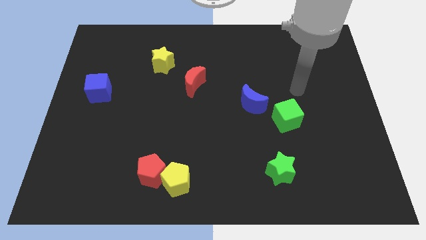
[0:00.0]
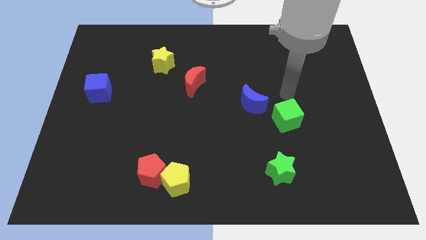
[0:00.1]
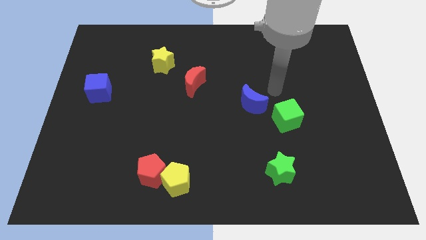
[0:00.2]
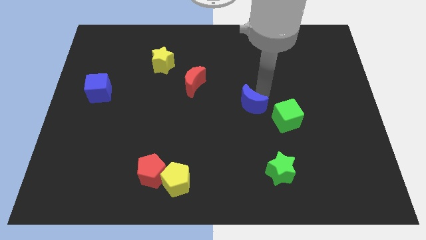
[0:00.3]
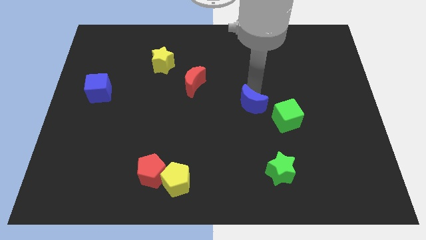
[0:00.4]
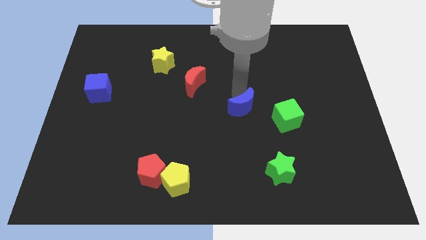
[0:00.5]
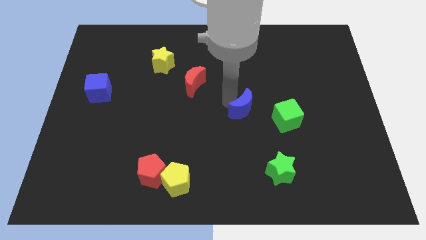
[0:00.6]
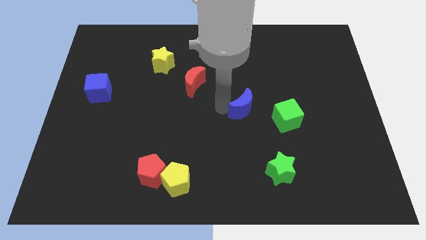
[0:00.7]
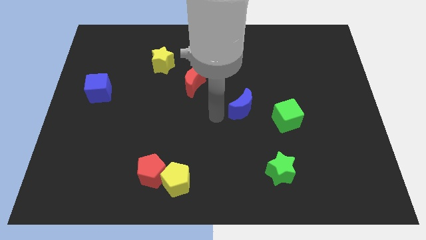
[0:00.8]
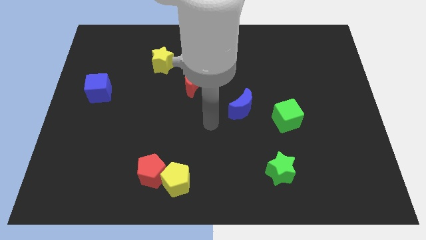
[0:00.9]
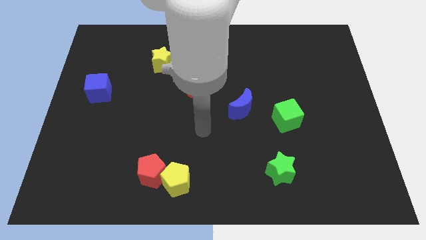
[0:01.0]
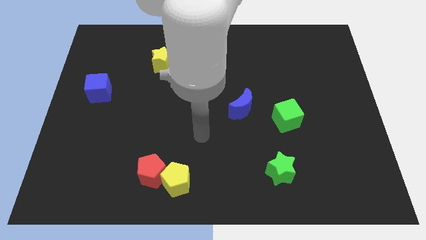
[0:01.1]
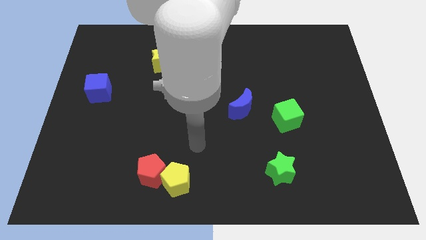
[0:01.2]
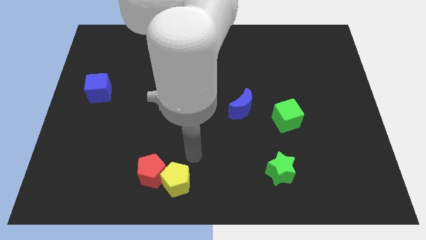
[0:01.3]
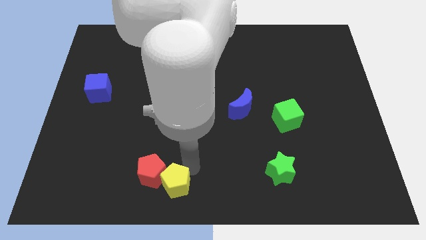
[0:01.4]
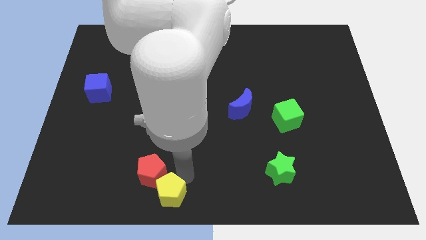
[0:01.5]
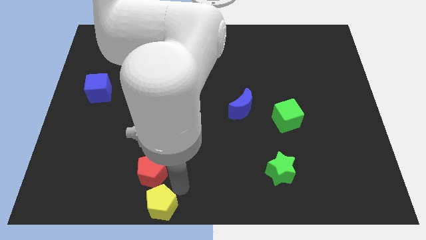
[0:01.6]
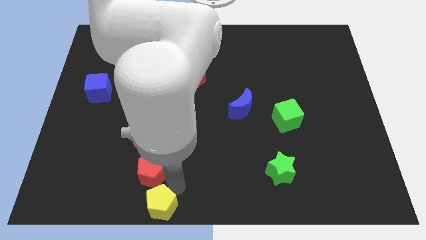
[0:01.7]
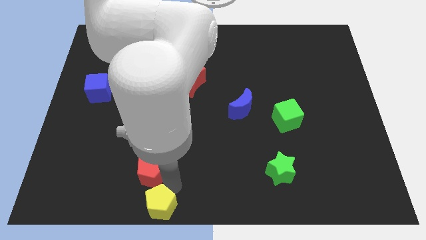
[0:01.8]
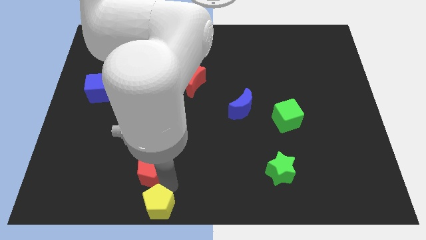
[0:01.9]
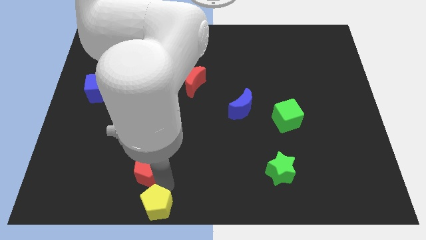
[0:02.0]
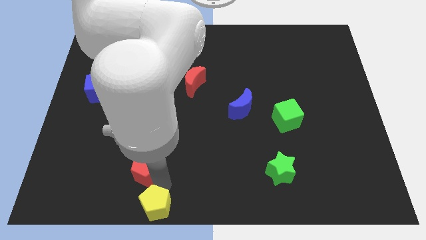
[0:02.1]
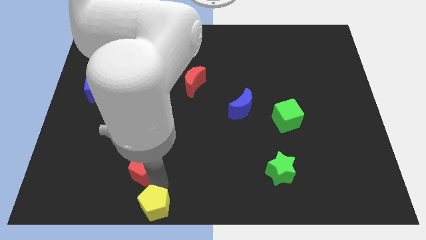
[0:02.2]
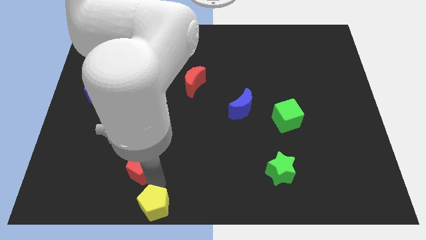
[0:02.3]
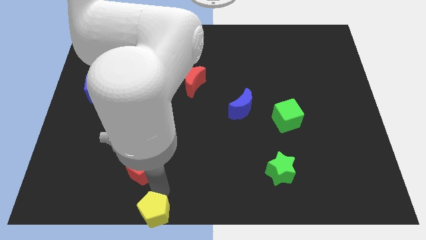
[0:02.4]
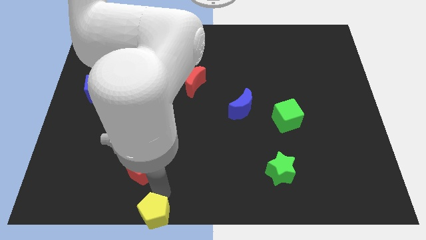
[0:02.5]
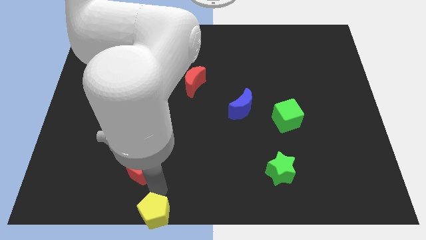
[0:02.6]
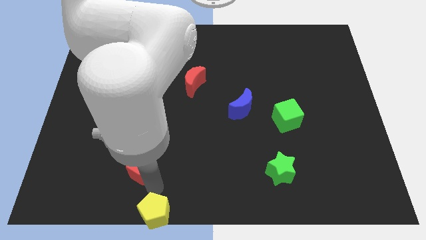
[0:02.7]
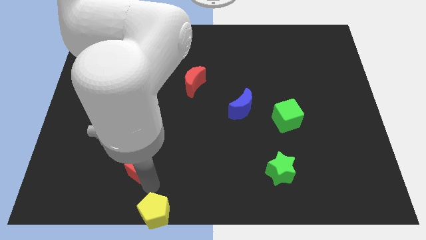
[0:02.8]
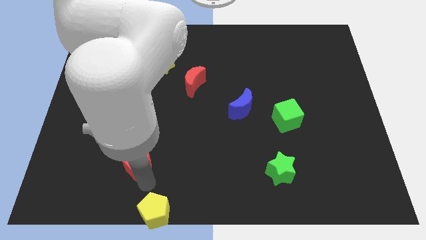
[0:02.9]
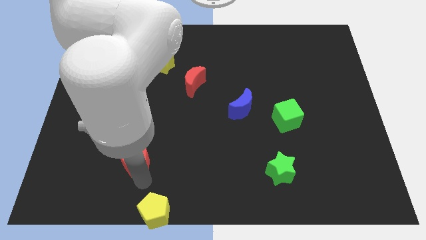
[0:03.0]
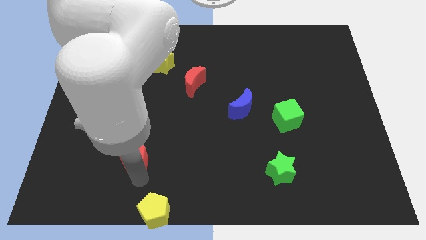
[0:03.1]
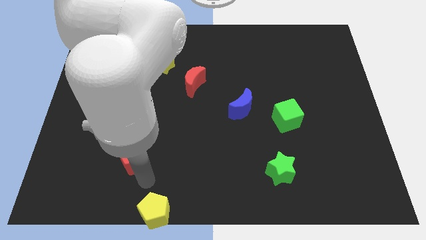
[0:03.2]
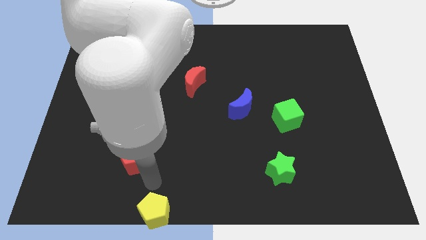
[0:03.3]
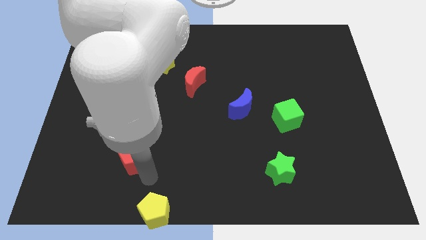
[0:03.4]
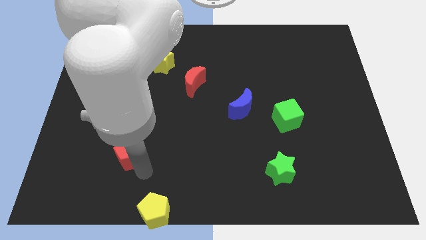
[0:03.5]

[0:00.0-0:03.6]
slightly move the red pentagon up and left

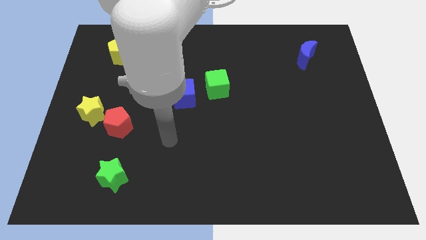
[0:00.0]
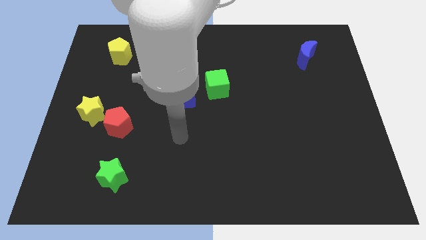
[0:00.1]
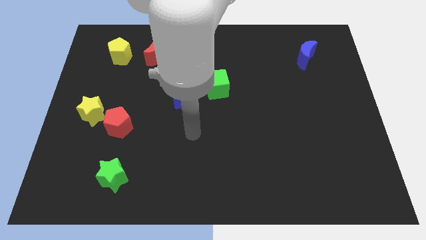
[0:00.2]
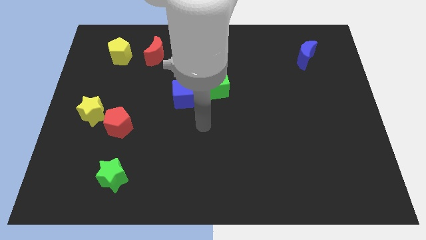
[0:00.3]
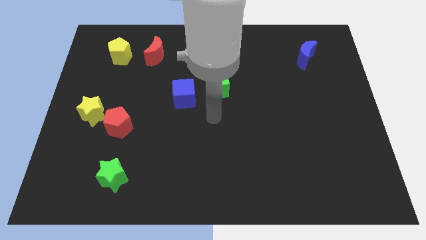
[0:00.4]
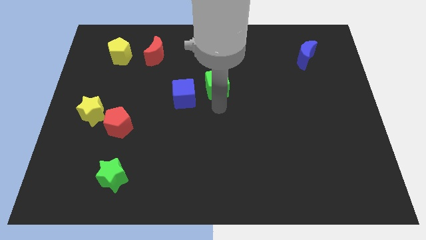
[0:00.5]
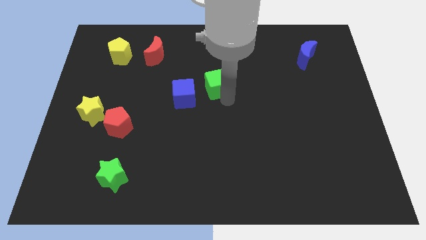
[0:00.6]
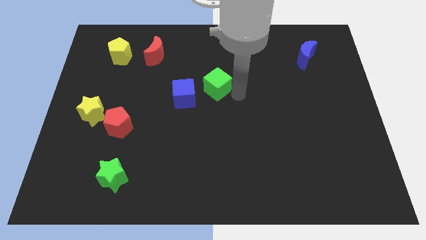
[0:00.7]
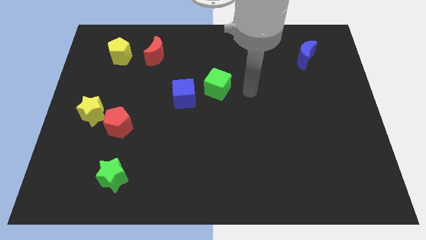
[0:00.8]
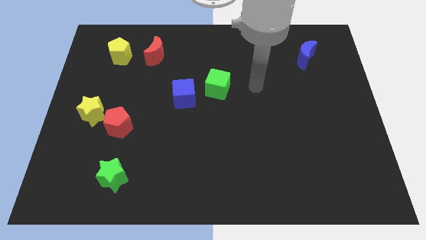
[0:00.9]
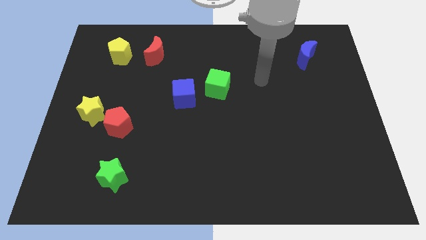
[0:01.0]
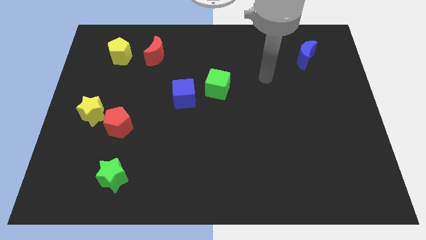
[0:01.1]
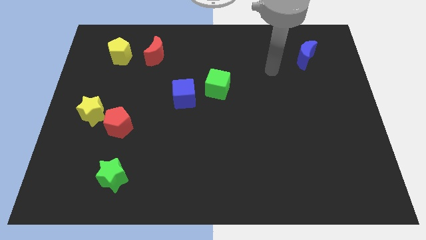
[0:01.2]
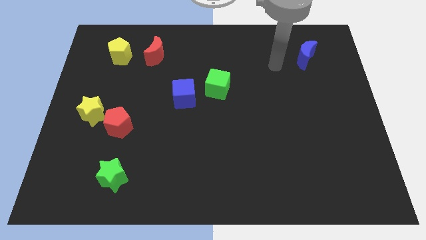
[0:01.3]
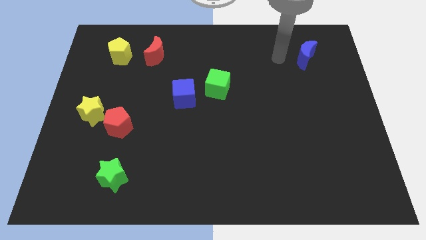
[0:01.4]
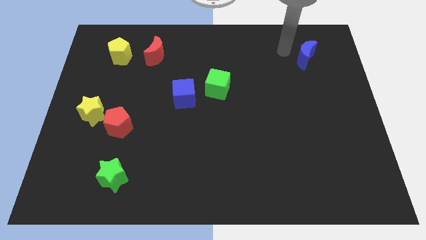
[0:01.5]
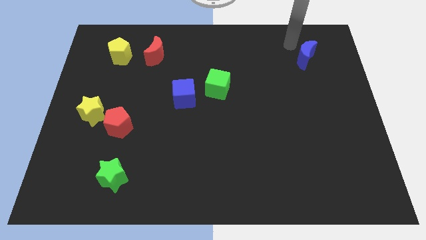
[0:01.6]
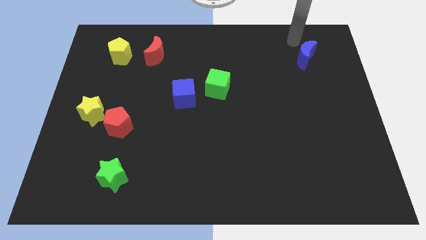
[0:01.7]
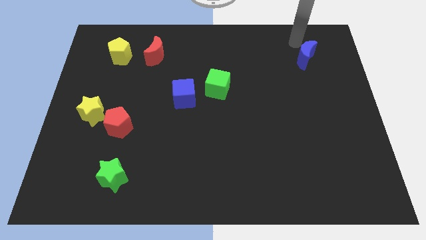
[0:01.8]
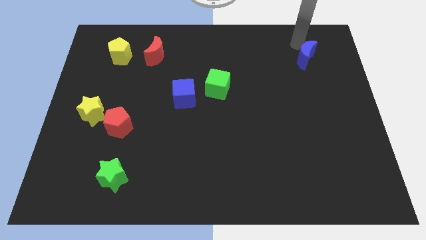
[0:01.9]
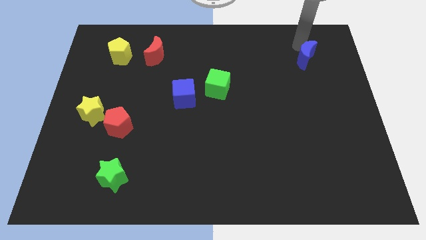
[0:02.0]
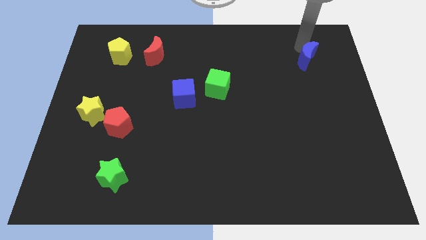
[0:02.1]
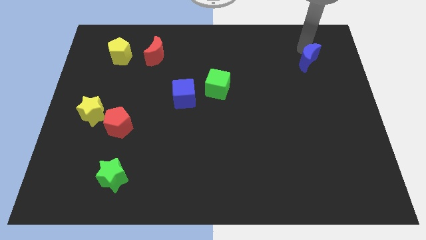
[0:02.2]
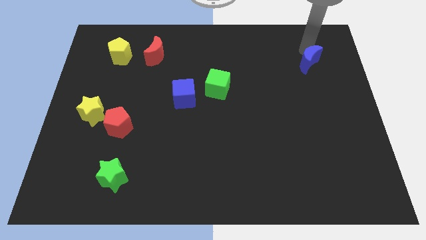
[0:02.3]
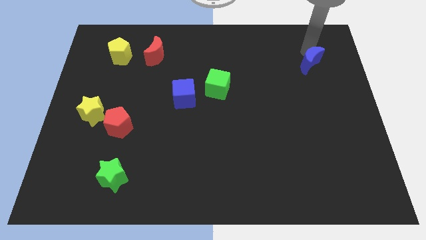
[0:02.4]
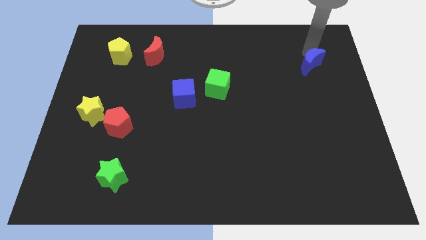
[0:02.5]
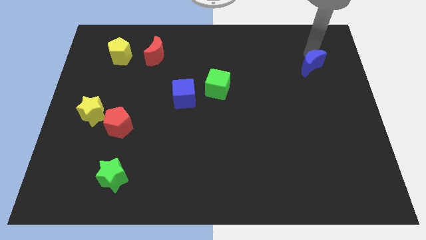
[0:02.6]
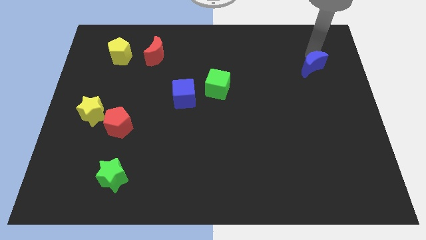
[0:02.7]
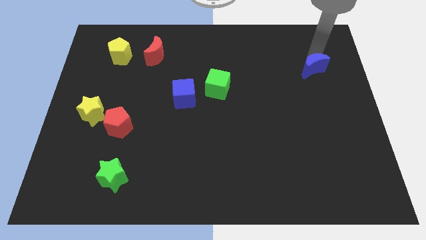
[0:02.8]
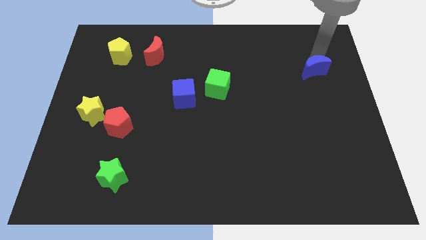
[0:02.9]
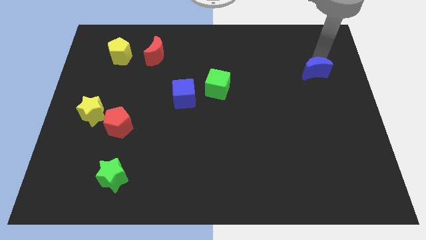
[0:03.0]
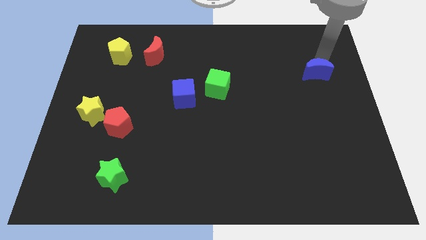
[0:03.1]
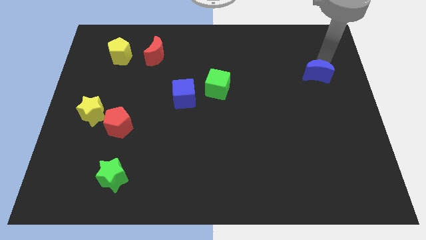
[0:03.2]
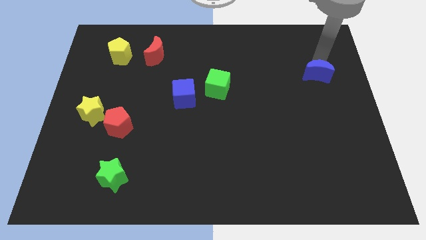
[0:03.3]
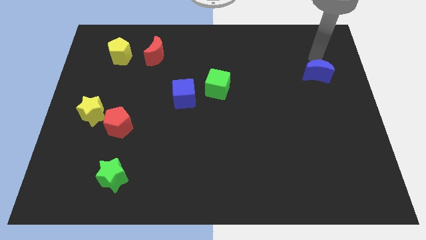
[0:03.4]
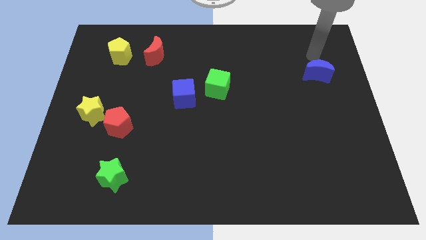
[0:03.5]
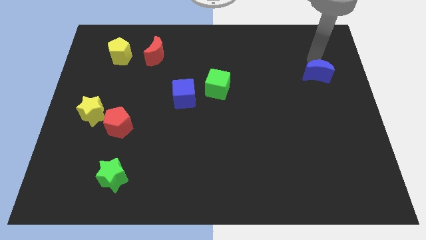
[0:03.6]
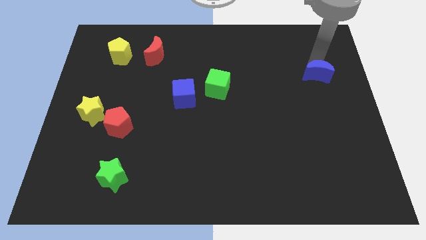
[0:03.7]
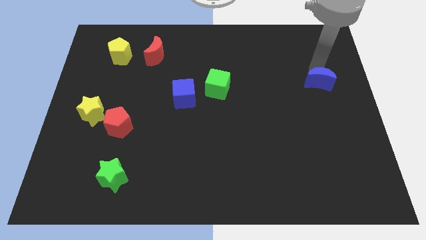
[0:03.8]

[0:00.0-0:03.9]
slide the blue moon downwards a little bit

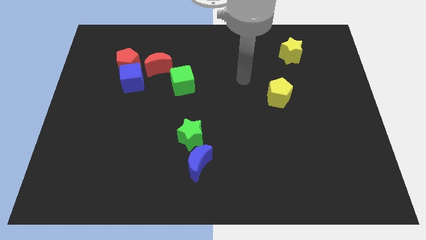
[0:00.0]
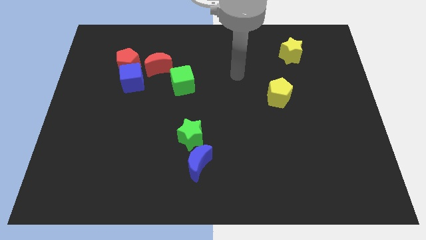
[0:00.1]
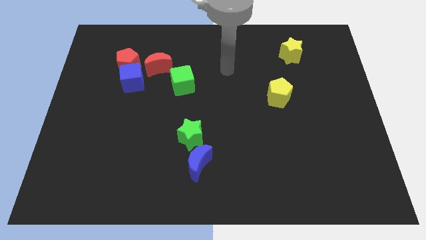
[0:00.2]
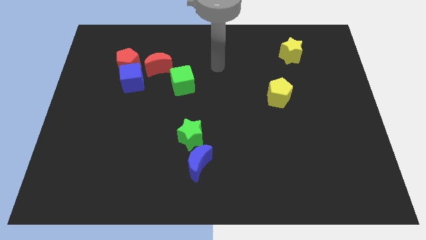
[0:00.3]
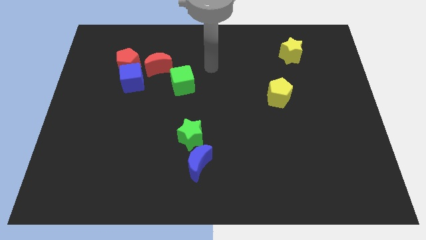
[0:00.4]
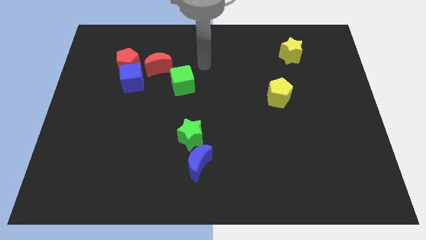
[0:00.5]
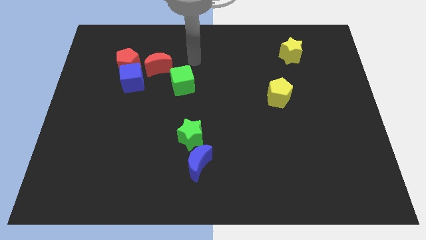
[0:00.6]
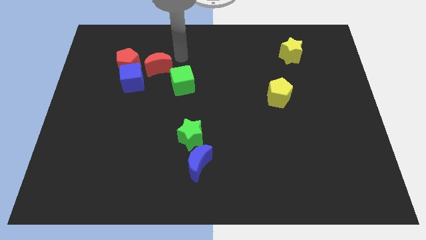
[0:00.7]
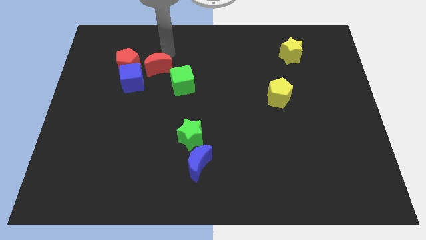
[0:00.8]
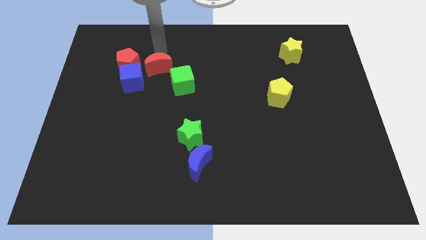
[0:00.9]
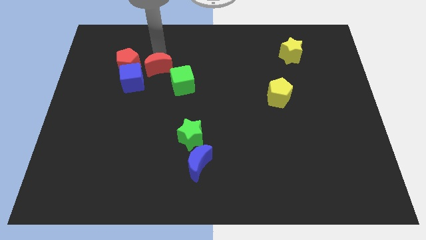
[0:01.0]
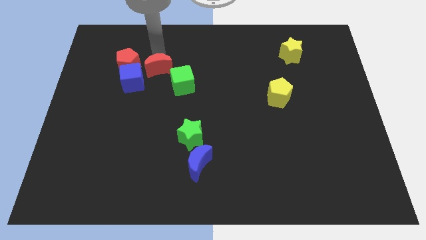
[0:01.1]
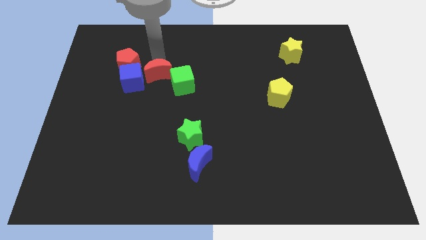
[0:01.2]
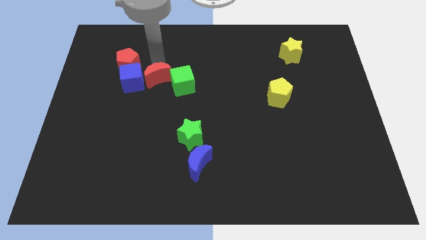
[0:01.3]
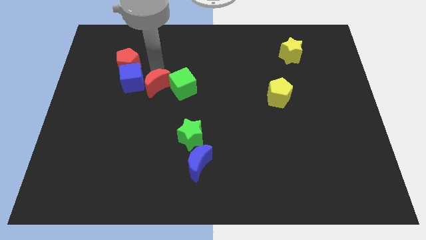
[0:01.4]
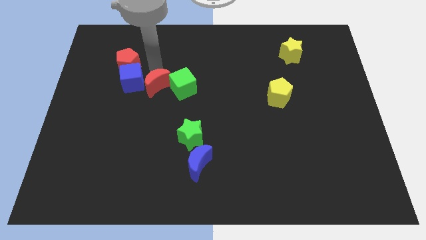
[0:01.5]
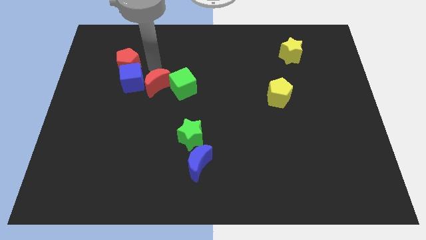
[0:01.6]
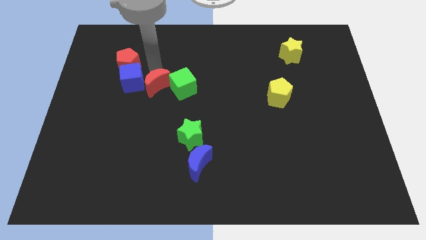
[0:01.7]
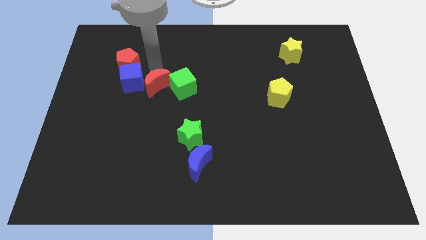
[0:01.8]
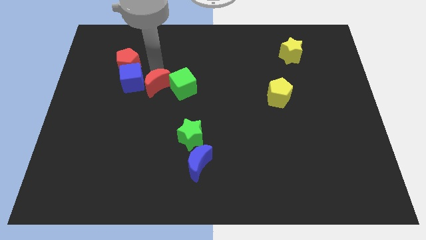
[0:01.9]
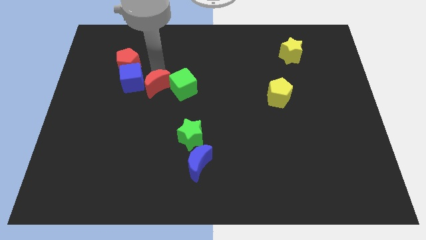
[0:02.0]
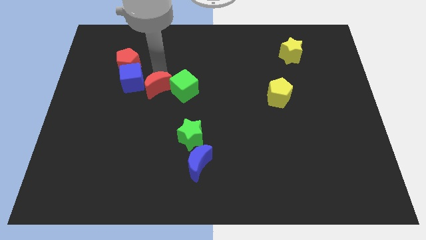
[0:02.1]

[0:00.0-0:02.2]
push the red moon somewhat down
